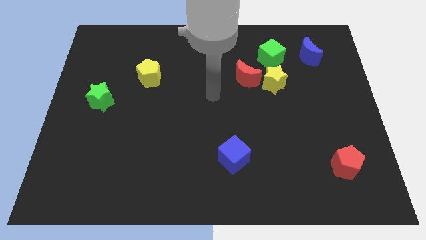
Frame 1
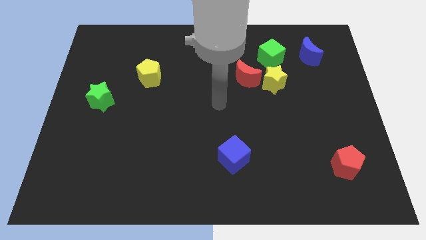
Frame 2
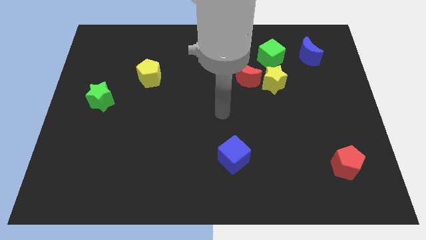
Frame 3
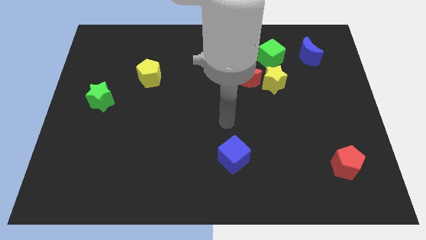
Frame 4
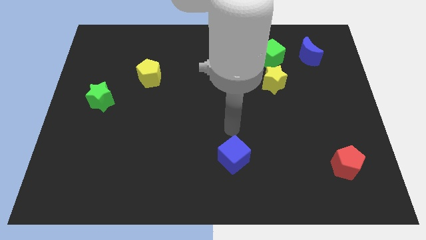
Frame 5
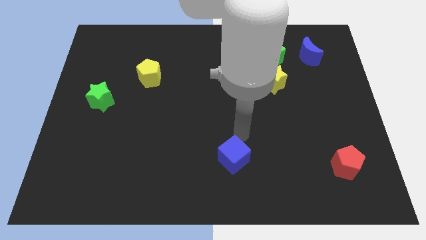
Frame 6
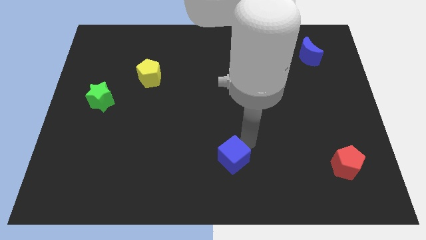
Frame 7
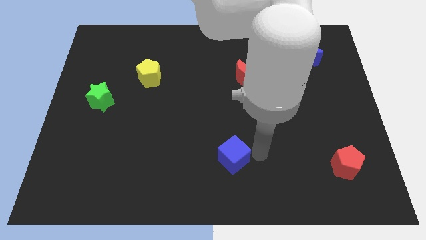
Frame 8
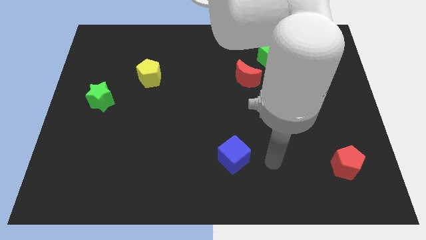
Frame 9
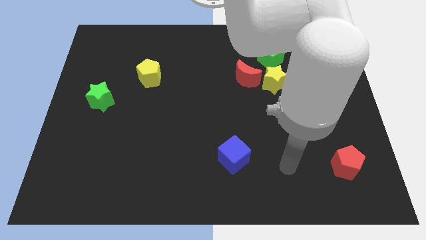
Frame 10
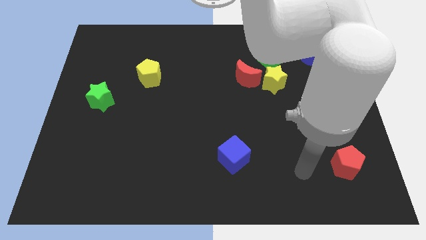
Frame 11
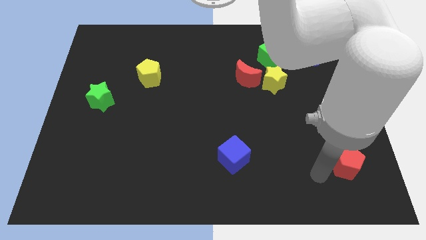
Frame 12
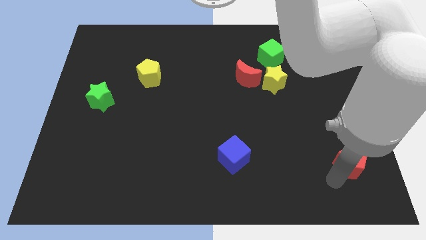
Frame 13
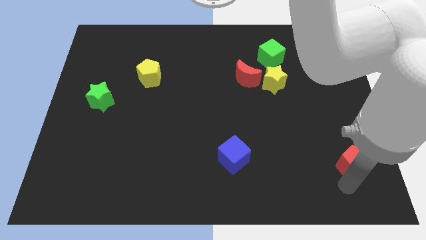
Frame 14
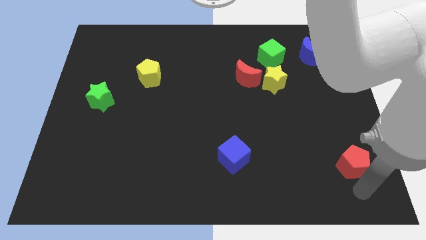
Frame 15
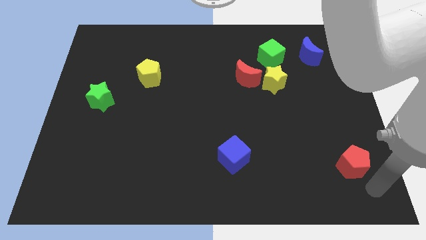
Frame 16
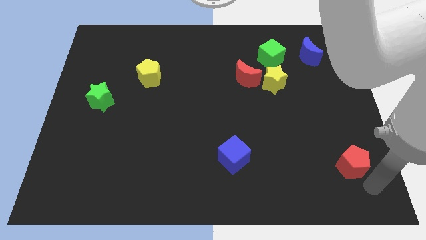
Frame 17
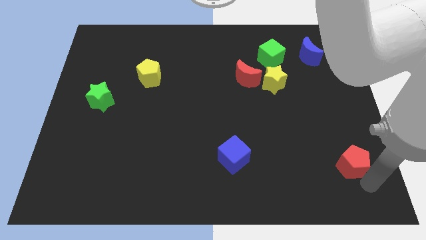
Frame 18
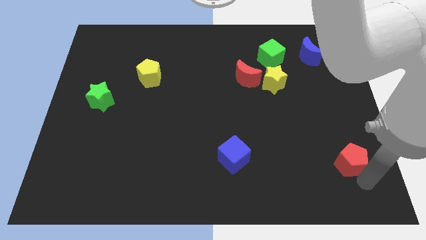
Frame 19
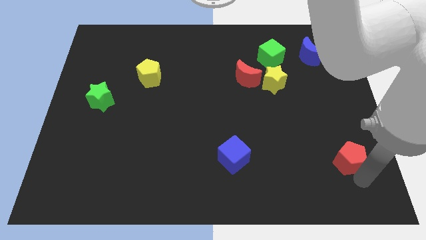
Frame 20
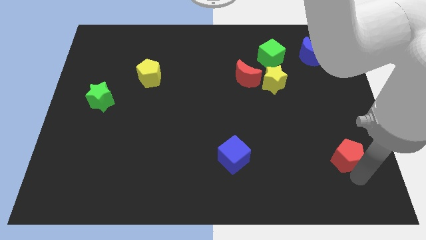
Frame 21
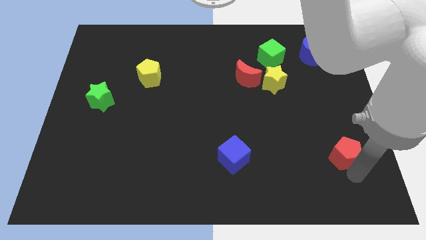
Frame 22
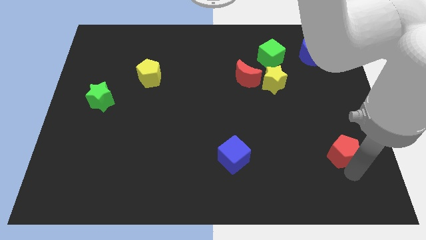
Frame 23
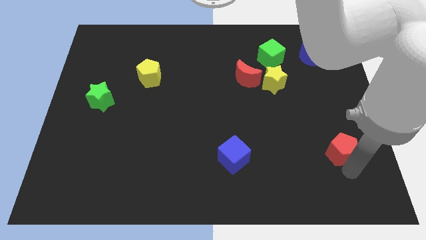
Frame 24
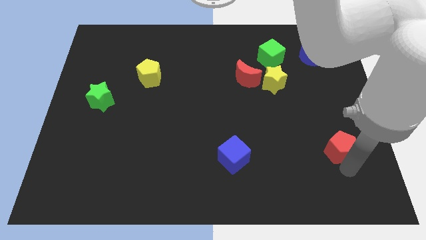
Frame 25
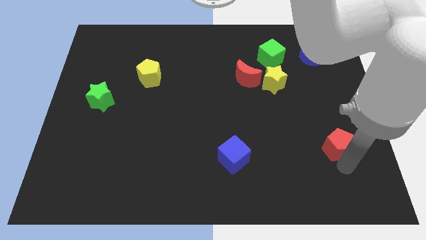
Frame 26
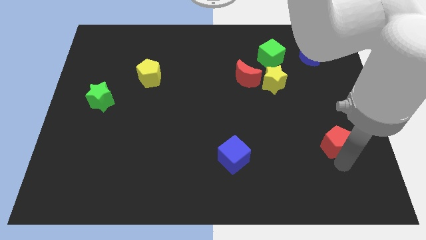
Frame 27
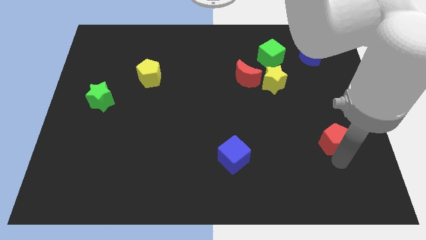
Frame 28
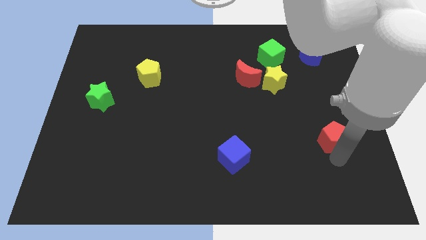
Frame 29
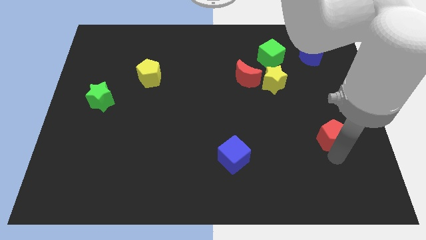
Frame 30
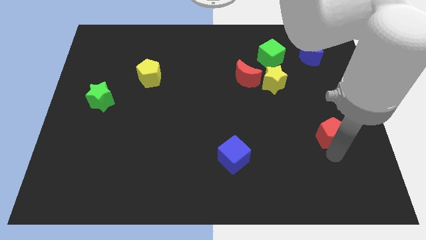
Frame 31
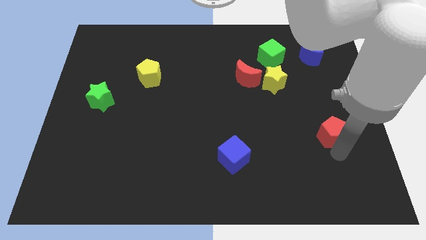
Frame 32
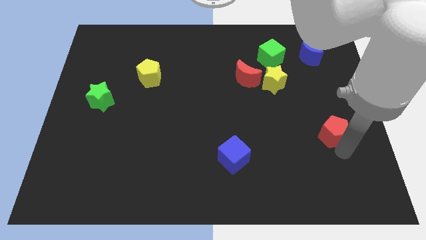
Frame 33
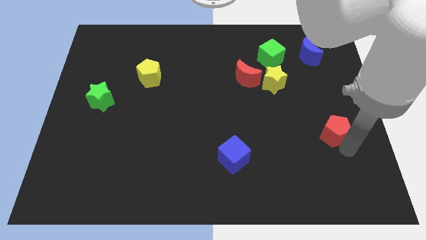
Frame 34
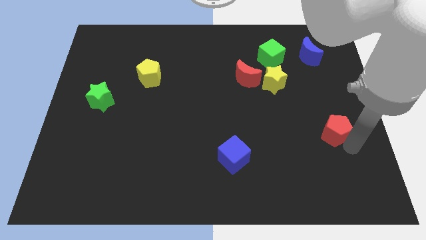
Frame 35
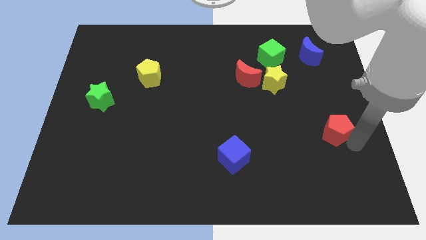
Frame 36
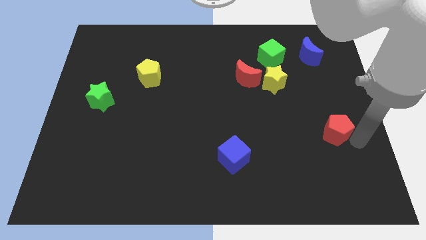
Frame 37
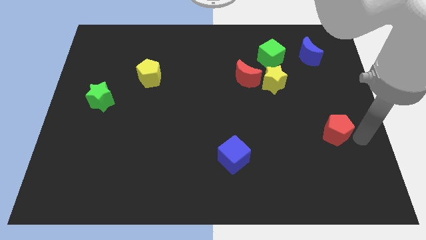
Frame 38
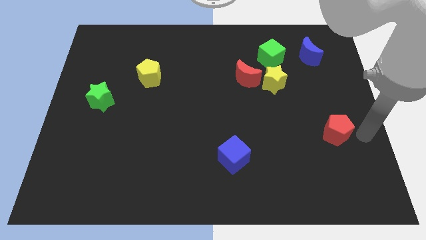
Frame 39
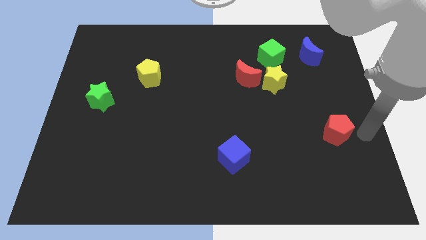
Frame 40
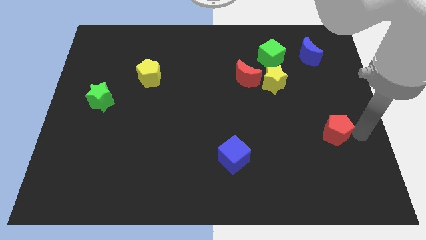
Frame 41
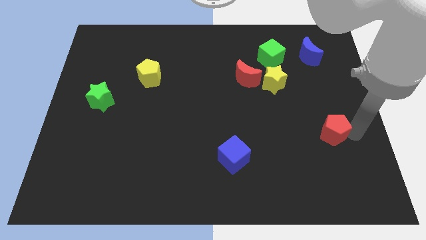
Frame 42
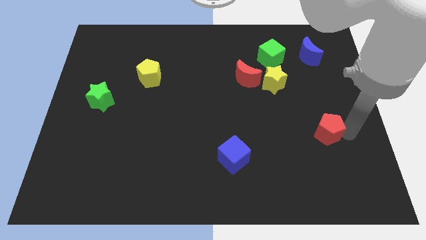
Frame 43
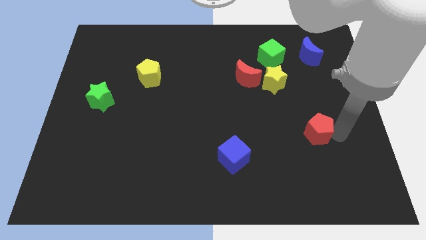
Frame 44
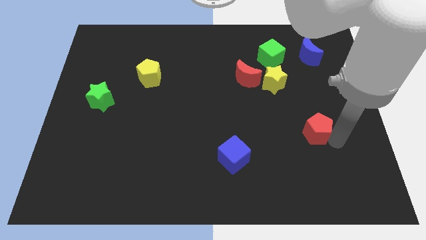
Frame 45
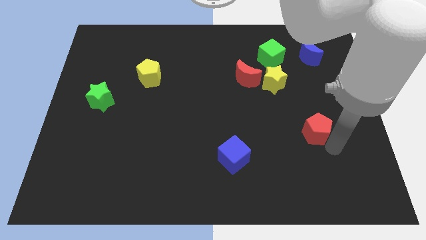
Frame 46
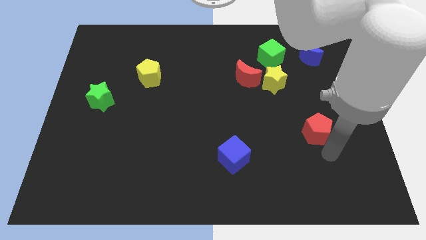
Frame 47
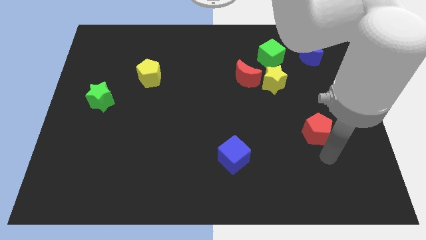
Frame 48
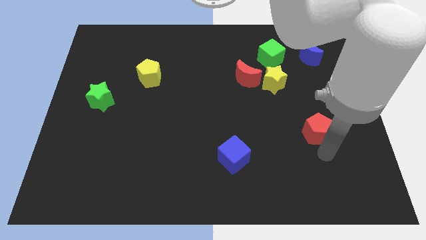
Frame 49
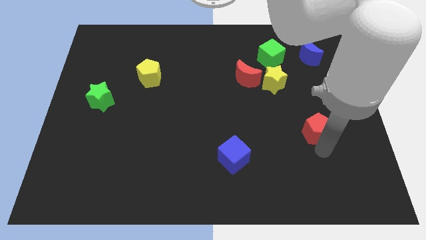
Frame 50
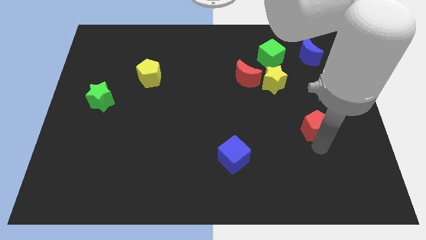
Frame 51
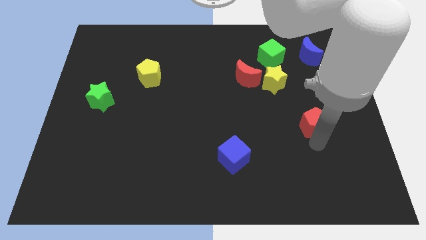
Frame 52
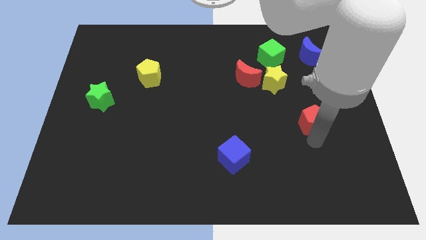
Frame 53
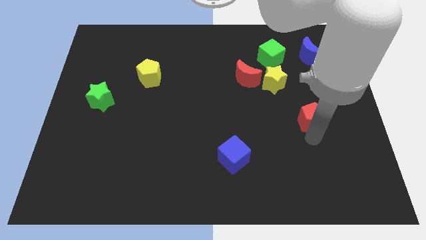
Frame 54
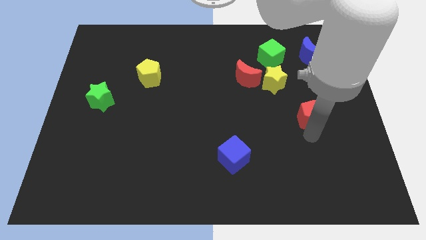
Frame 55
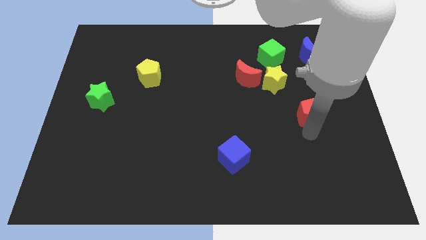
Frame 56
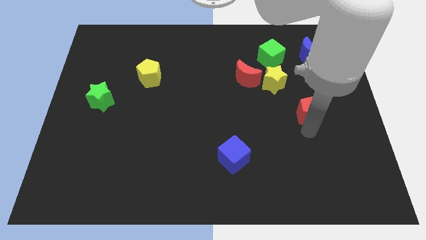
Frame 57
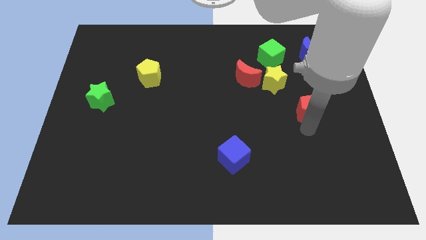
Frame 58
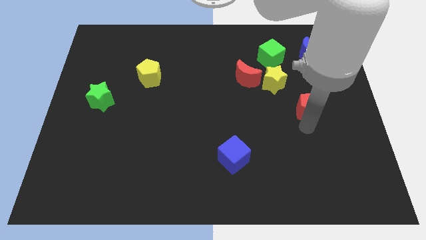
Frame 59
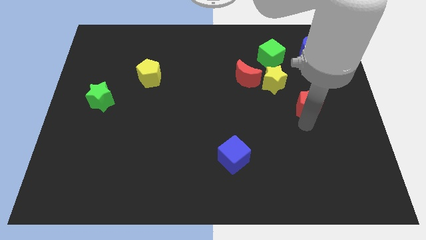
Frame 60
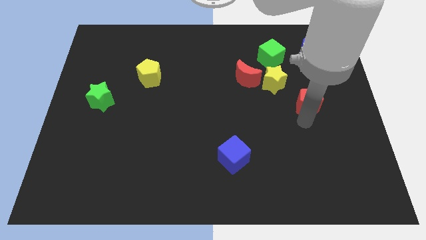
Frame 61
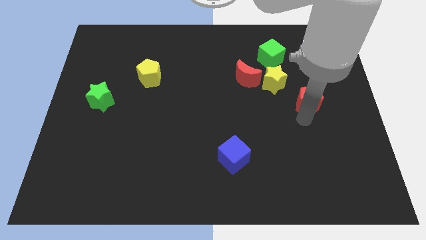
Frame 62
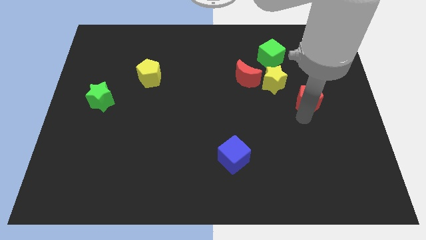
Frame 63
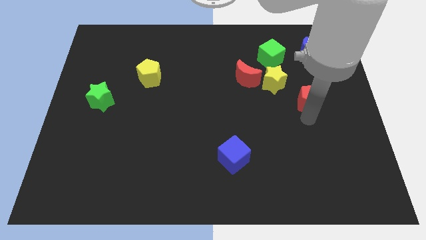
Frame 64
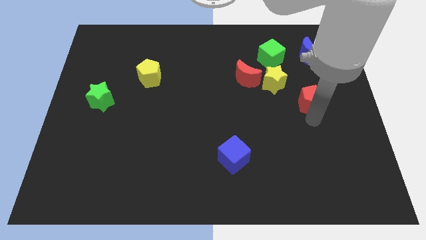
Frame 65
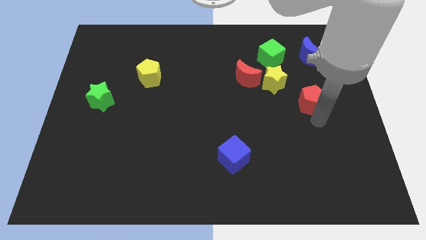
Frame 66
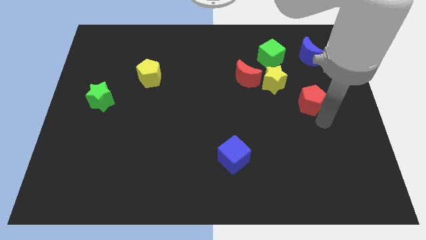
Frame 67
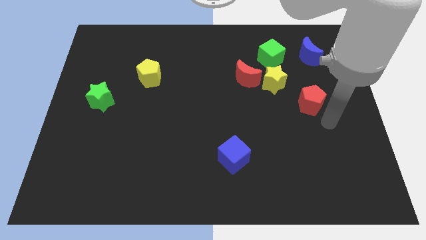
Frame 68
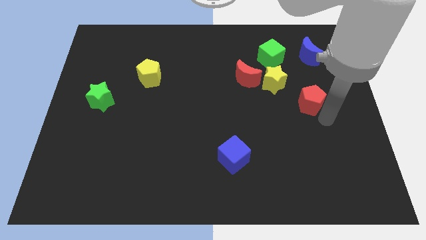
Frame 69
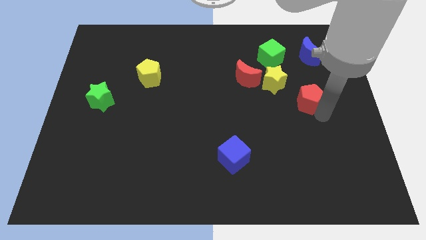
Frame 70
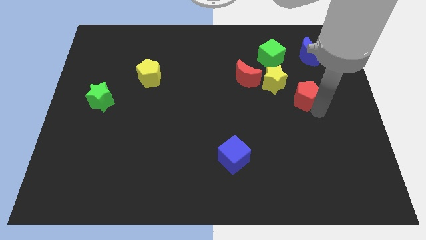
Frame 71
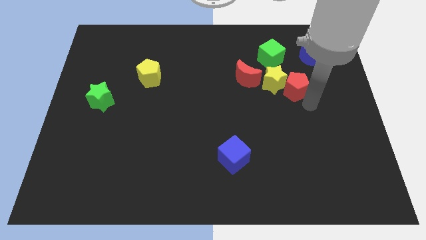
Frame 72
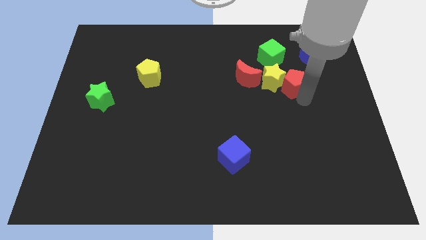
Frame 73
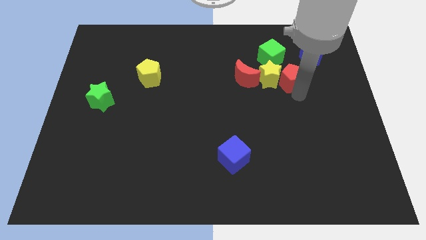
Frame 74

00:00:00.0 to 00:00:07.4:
slide the red pentagon diagonally up and to the right of the yellow star
